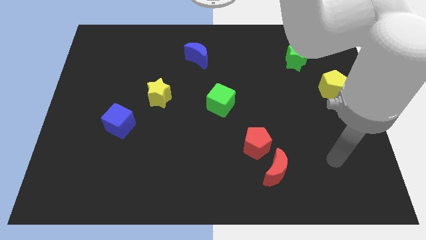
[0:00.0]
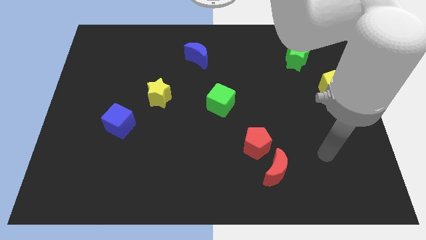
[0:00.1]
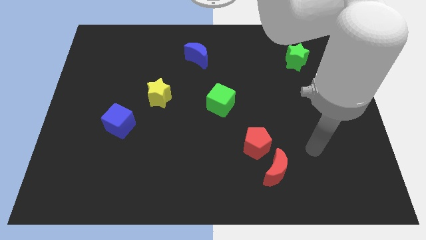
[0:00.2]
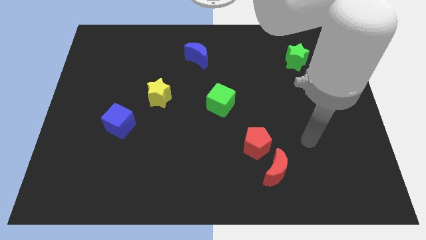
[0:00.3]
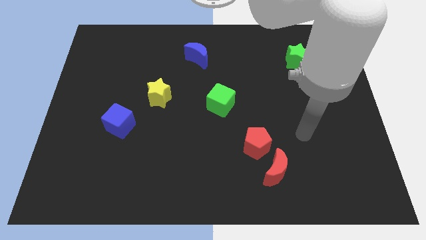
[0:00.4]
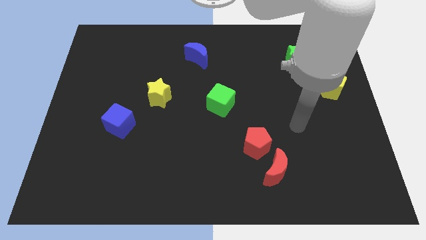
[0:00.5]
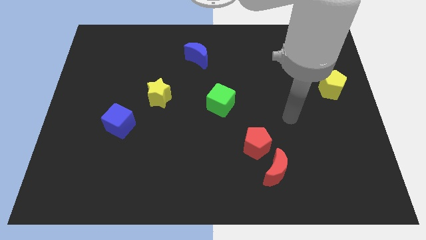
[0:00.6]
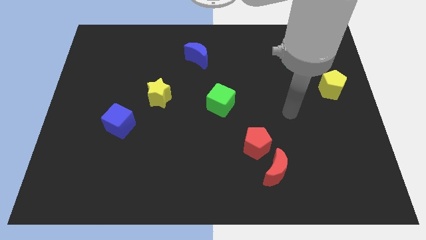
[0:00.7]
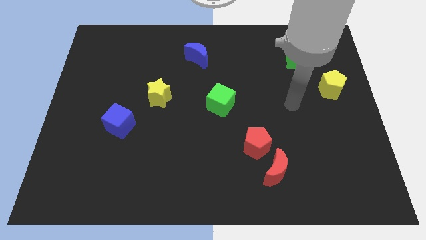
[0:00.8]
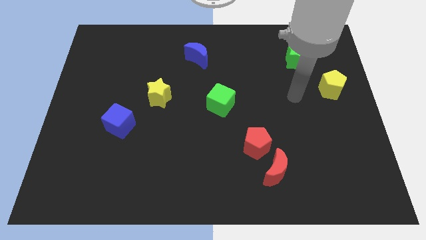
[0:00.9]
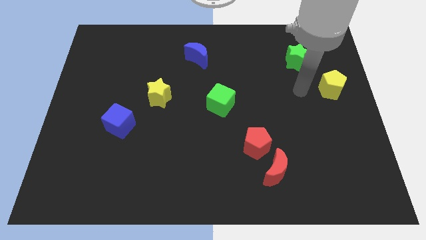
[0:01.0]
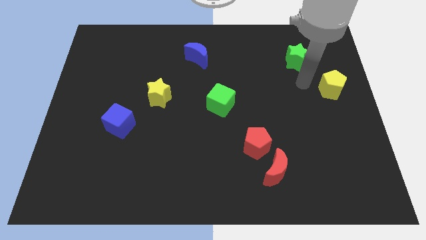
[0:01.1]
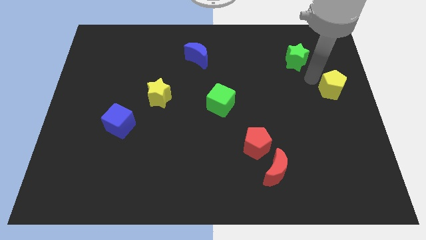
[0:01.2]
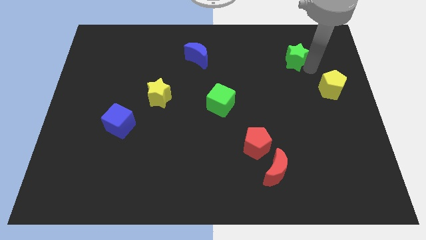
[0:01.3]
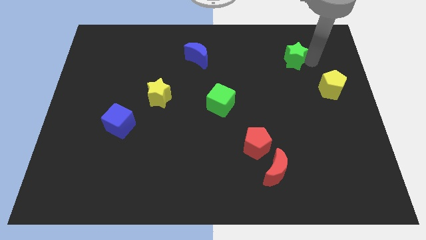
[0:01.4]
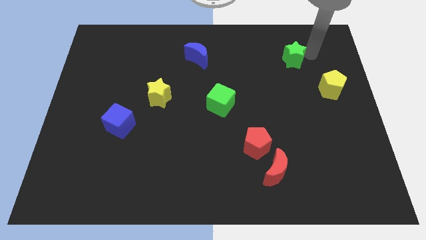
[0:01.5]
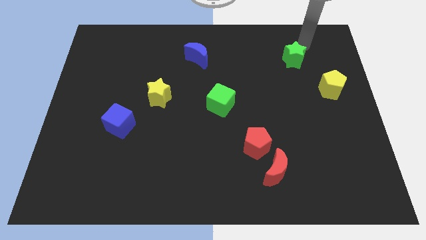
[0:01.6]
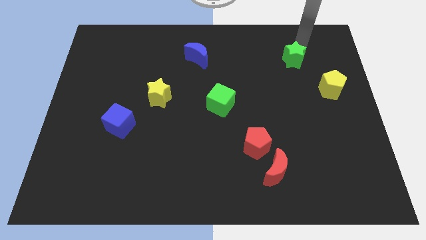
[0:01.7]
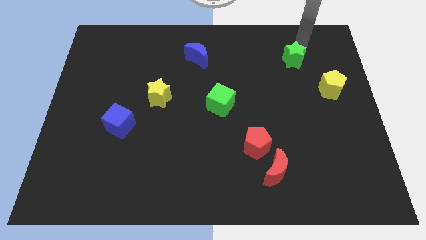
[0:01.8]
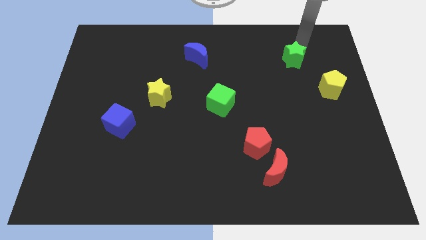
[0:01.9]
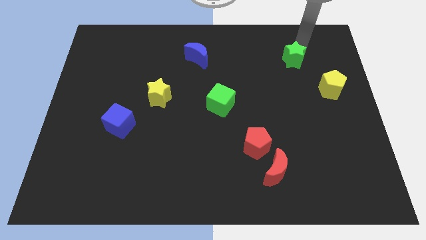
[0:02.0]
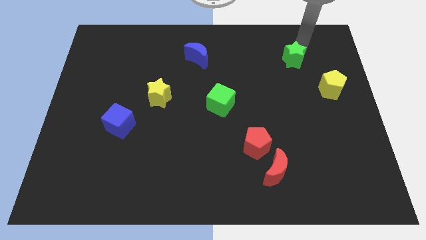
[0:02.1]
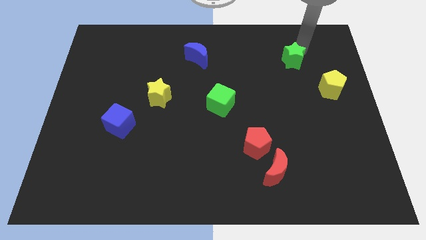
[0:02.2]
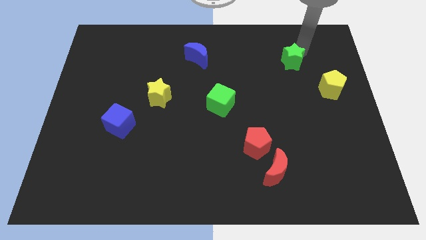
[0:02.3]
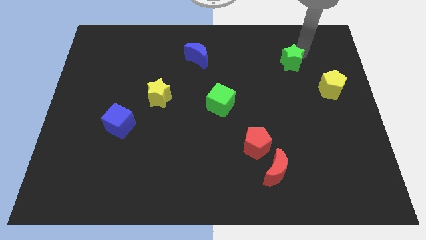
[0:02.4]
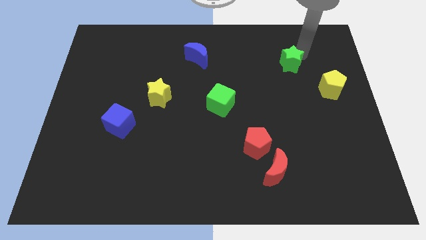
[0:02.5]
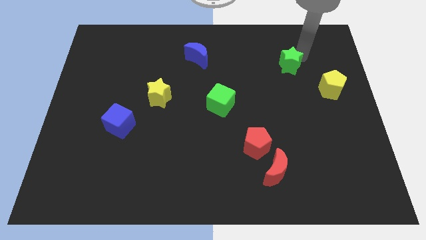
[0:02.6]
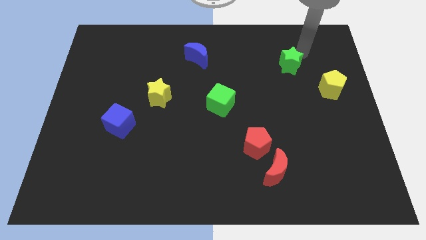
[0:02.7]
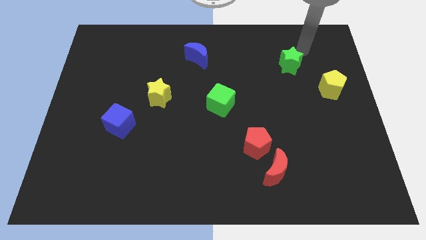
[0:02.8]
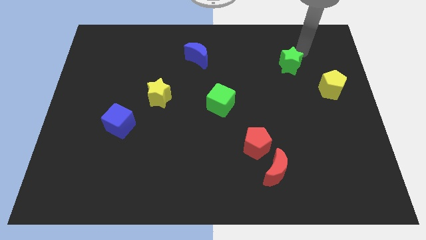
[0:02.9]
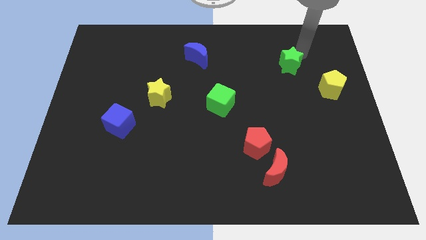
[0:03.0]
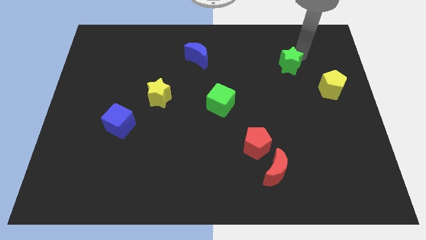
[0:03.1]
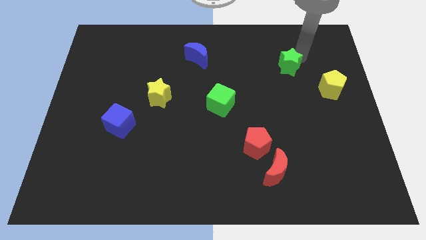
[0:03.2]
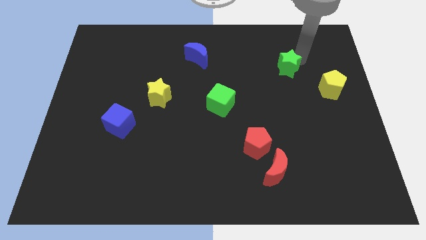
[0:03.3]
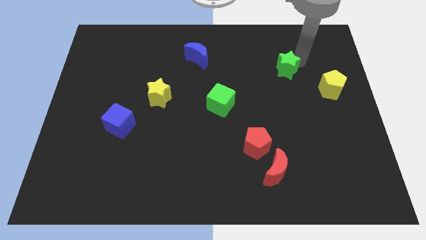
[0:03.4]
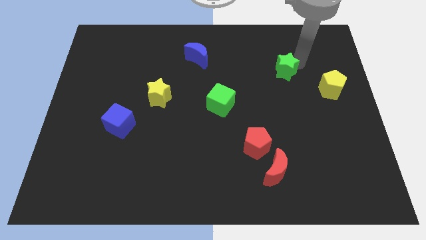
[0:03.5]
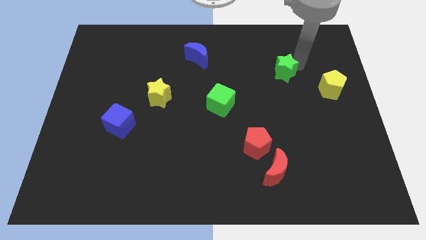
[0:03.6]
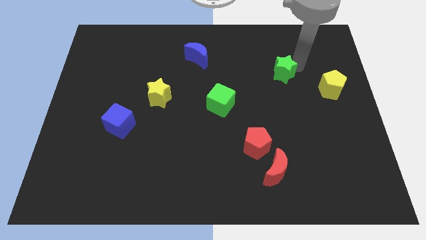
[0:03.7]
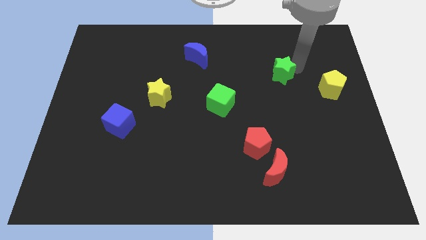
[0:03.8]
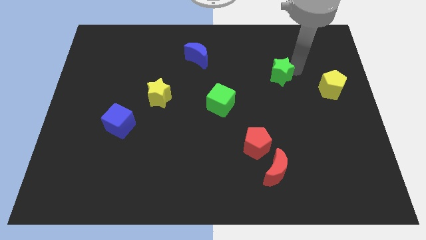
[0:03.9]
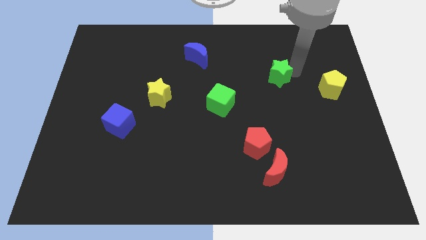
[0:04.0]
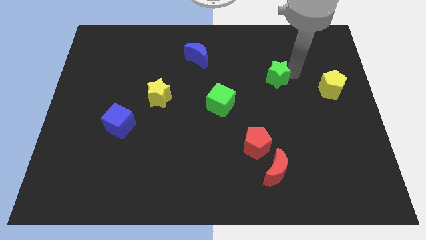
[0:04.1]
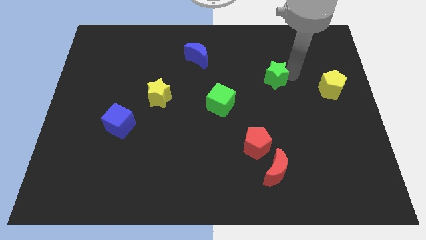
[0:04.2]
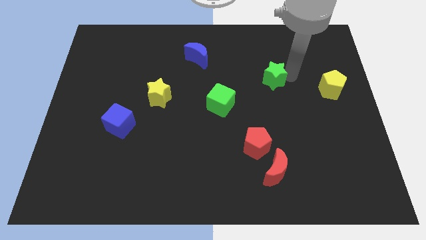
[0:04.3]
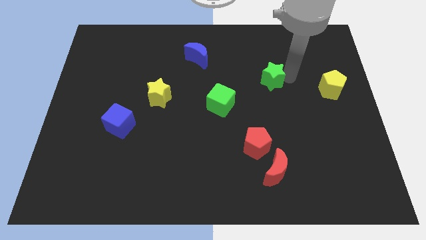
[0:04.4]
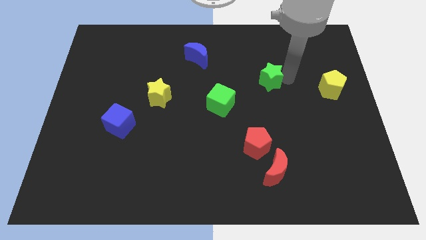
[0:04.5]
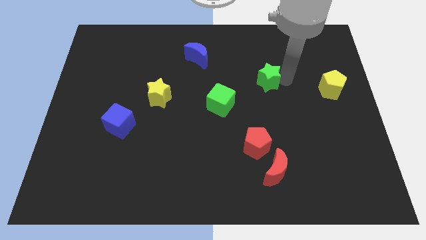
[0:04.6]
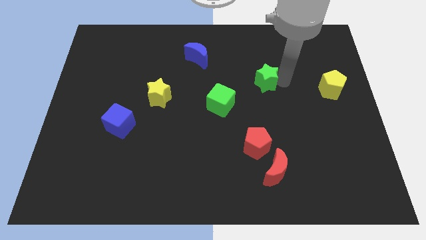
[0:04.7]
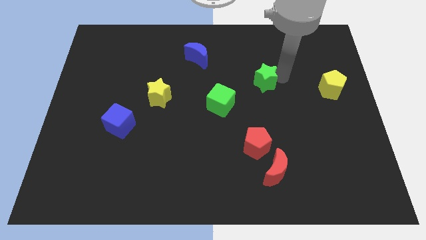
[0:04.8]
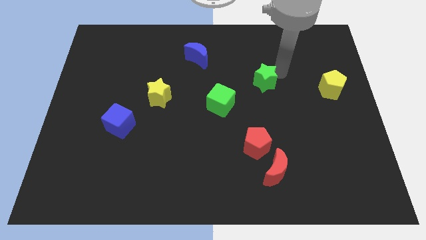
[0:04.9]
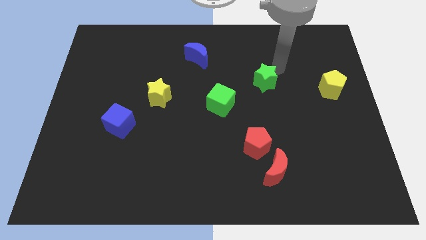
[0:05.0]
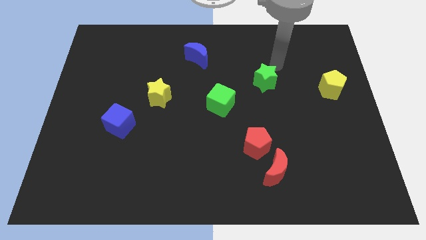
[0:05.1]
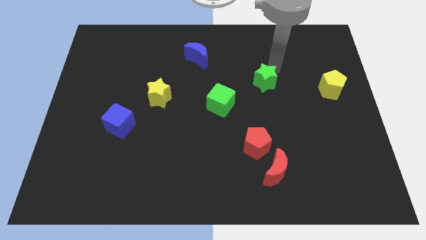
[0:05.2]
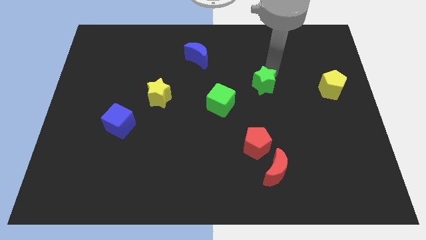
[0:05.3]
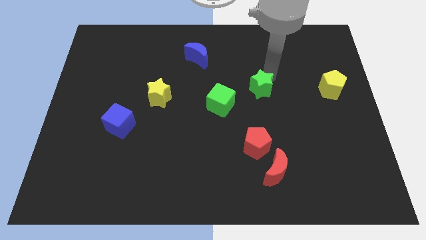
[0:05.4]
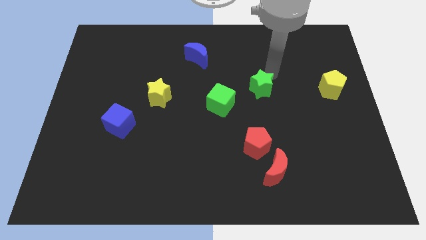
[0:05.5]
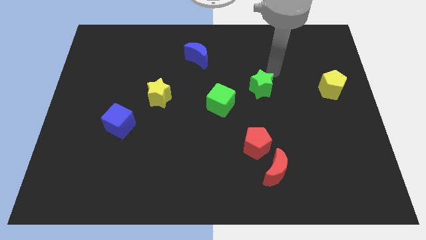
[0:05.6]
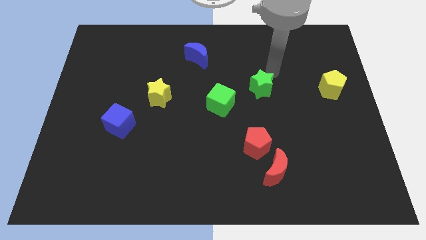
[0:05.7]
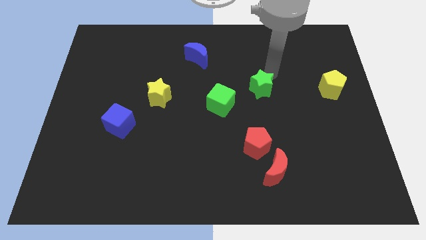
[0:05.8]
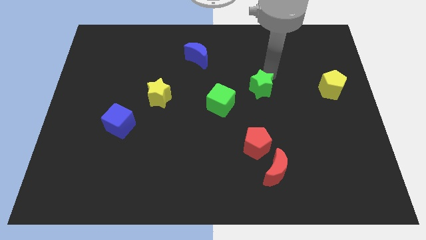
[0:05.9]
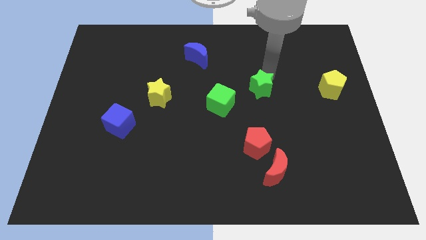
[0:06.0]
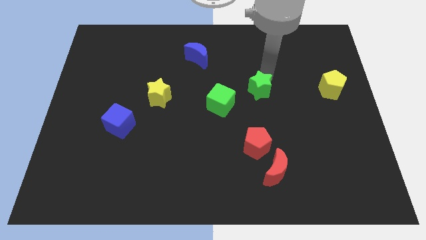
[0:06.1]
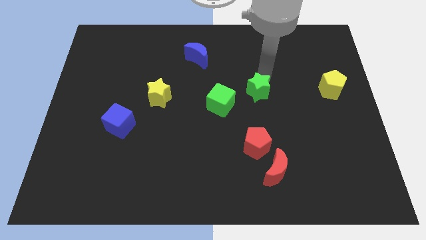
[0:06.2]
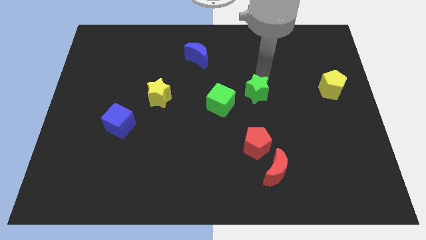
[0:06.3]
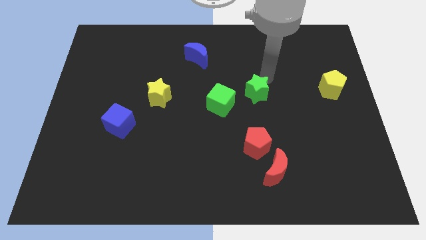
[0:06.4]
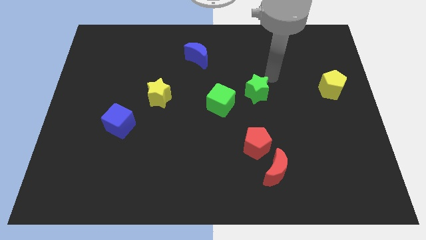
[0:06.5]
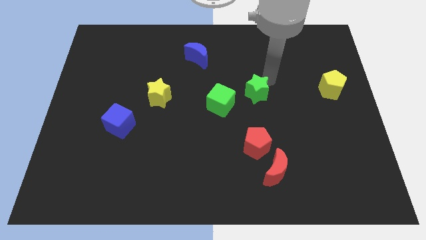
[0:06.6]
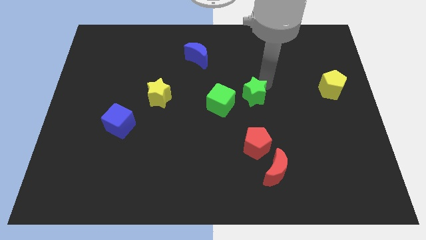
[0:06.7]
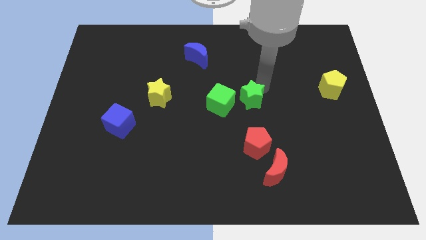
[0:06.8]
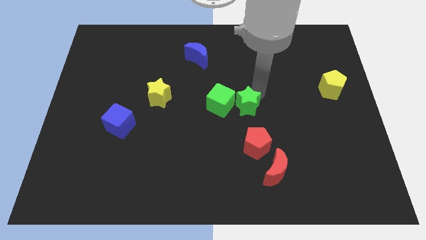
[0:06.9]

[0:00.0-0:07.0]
slide the green star down and to the left diagonally

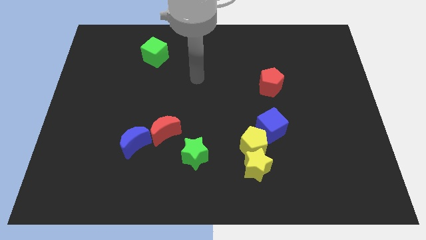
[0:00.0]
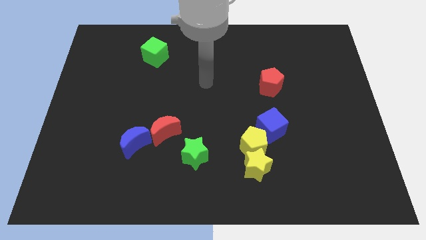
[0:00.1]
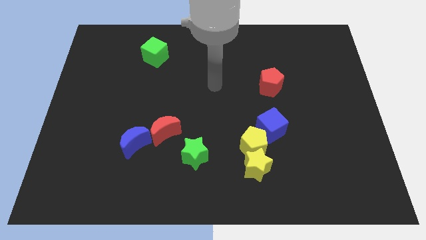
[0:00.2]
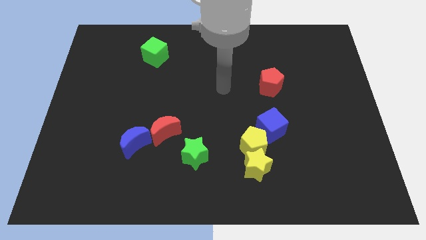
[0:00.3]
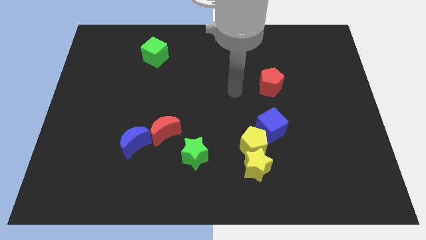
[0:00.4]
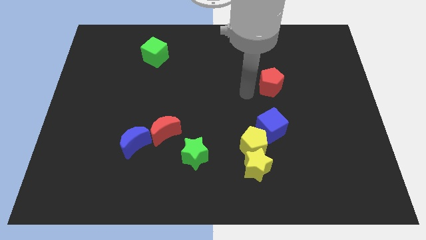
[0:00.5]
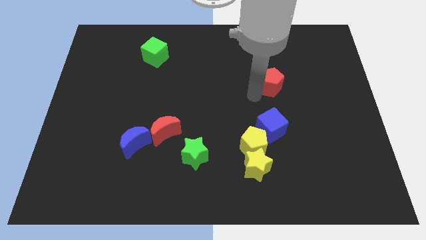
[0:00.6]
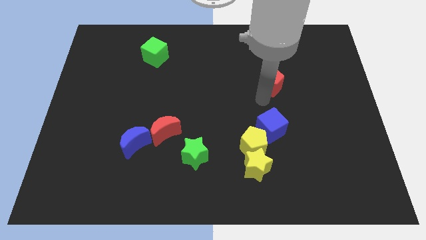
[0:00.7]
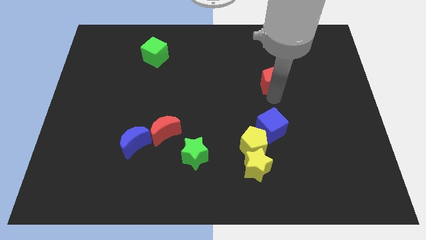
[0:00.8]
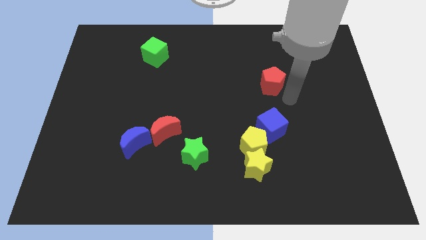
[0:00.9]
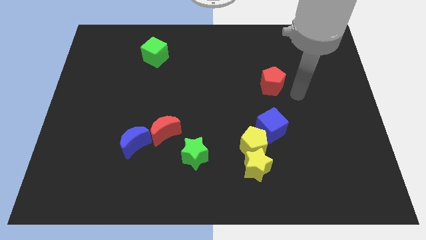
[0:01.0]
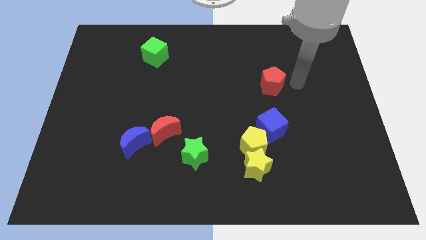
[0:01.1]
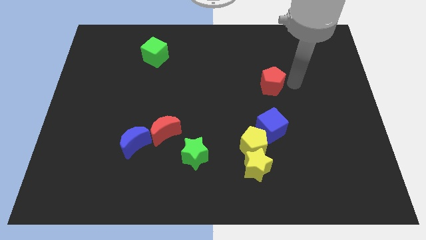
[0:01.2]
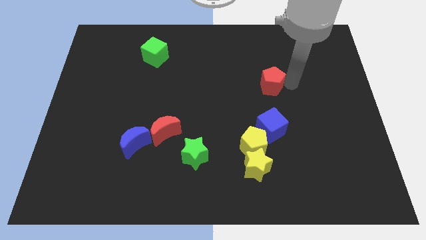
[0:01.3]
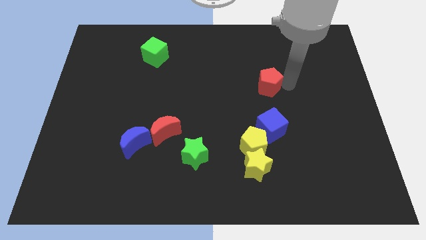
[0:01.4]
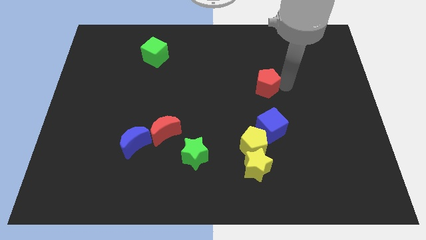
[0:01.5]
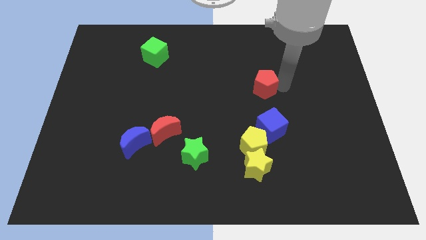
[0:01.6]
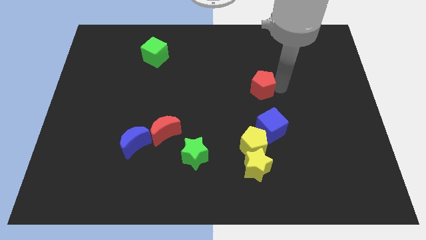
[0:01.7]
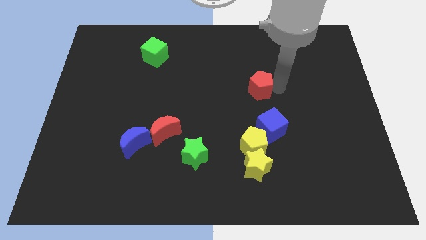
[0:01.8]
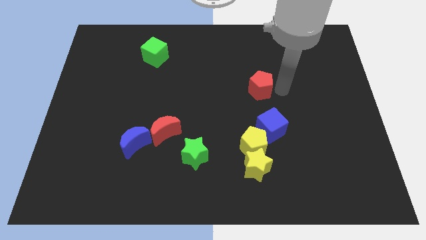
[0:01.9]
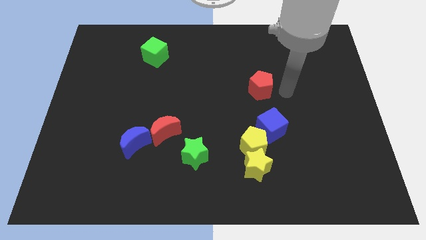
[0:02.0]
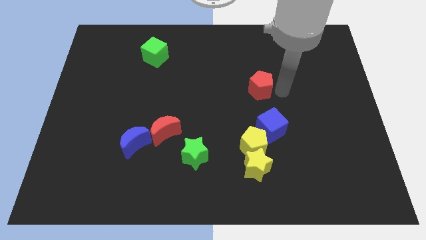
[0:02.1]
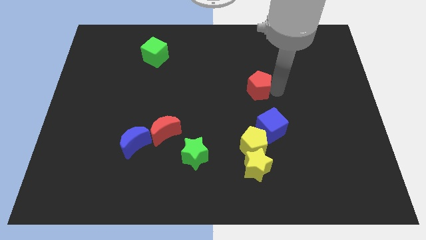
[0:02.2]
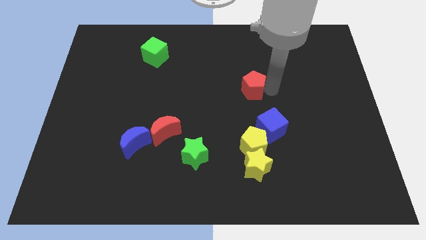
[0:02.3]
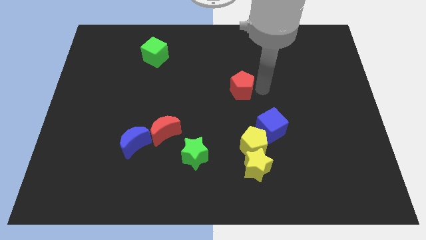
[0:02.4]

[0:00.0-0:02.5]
slightly push the red pentagon to the left
